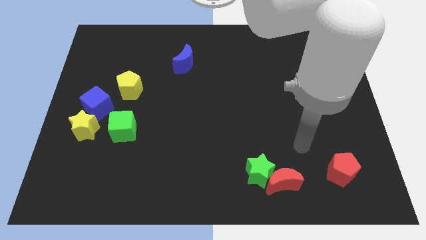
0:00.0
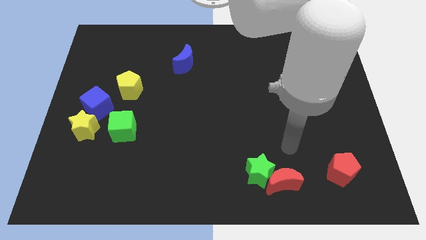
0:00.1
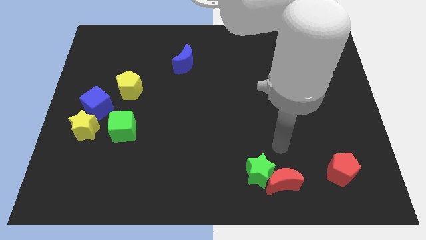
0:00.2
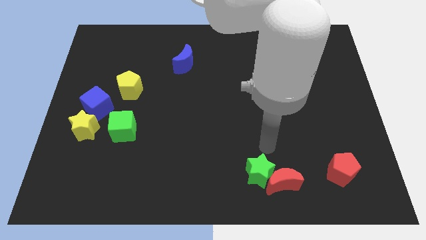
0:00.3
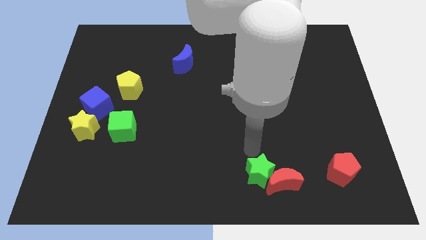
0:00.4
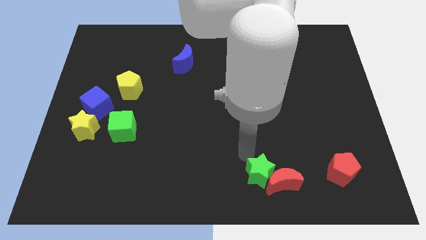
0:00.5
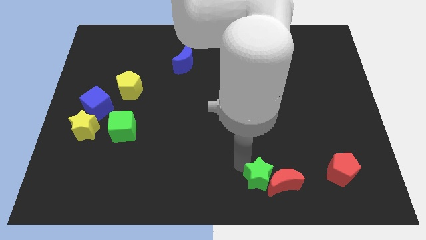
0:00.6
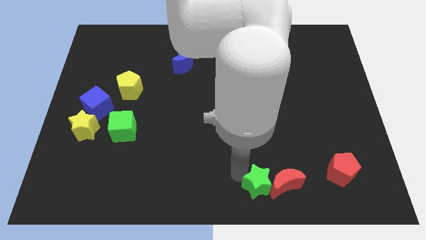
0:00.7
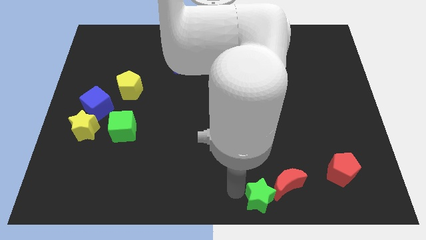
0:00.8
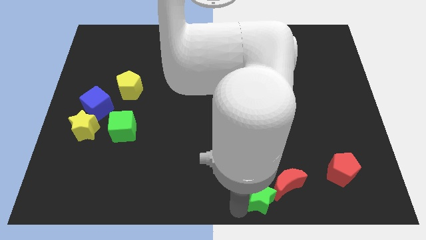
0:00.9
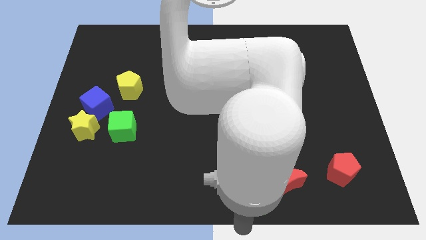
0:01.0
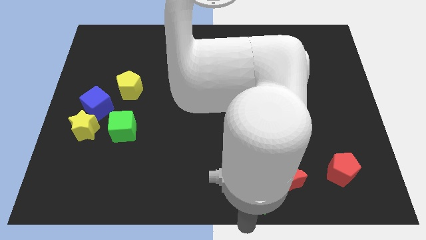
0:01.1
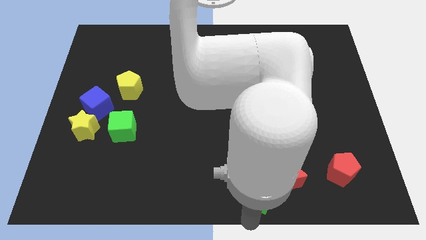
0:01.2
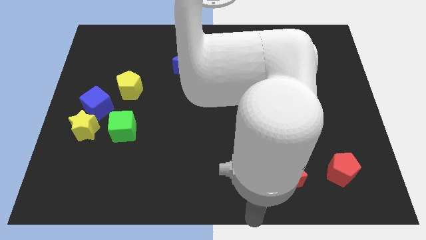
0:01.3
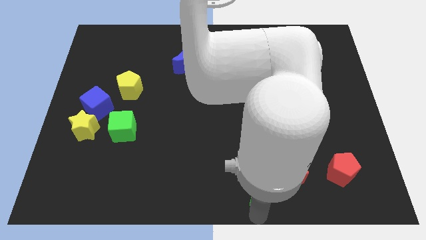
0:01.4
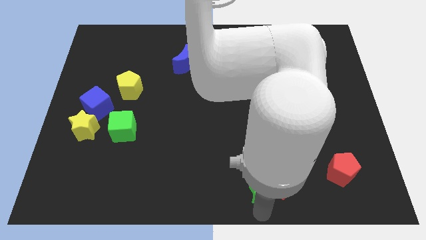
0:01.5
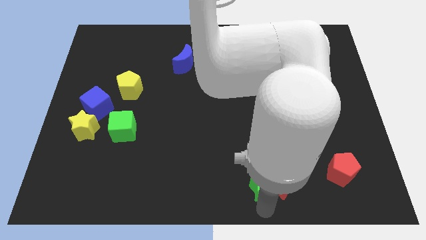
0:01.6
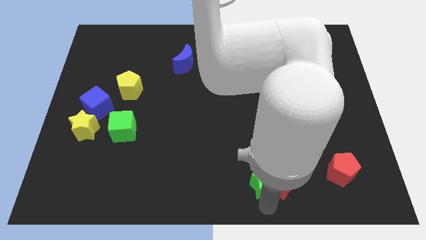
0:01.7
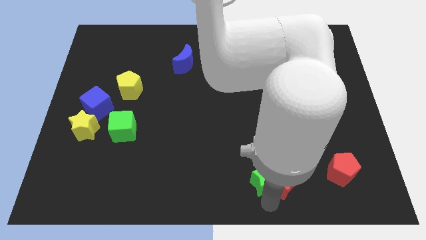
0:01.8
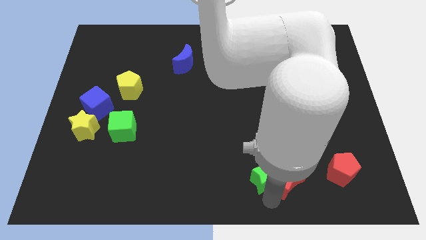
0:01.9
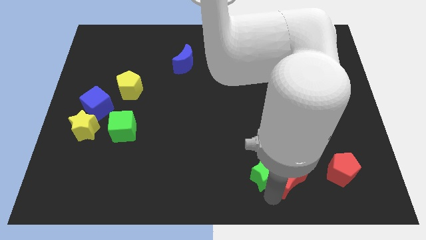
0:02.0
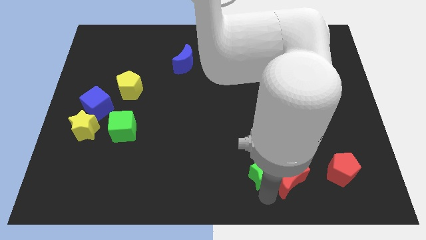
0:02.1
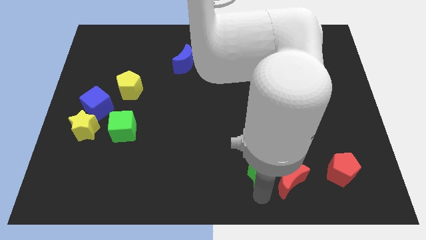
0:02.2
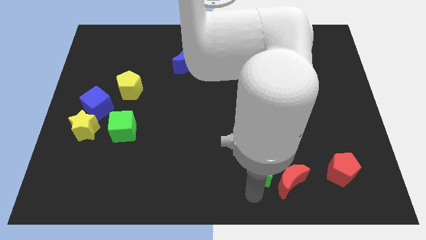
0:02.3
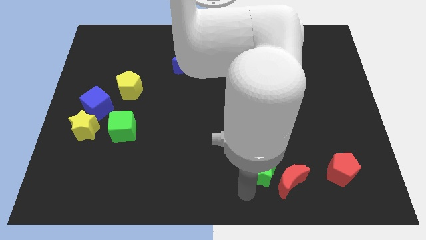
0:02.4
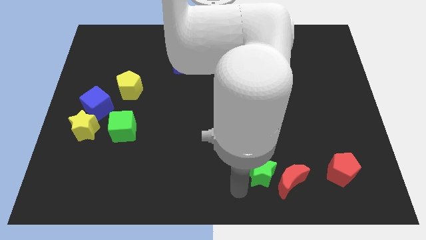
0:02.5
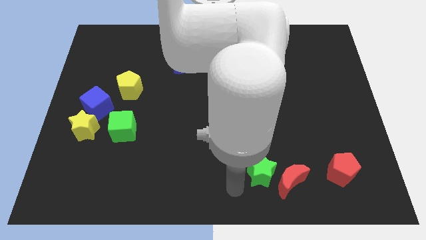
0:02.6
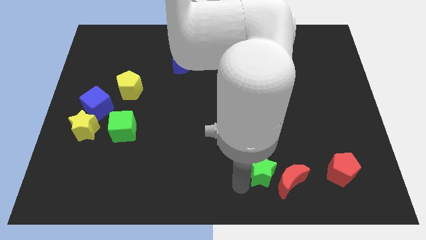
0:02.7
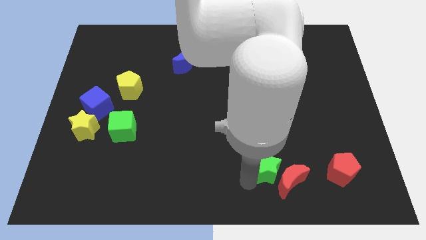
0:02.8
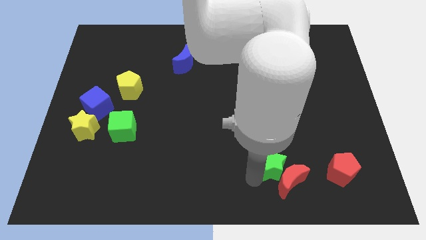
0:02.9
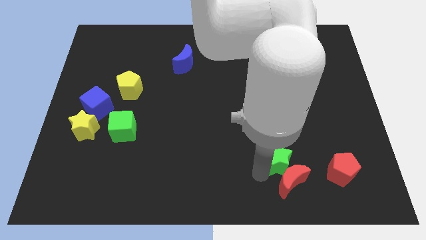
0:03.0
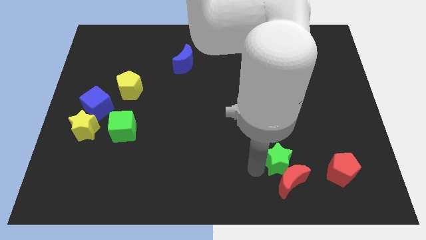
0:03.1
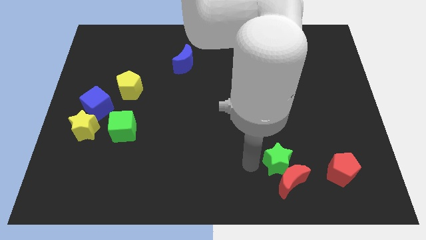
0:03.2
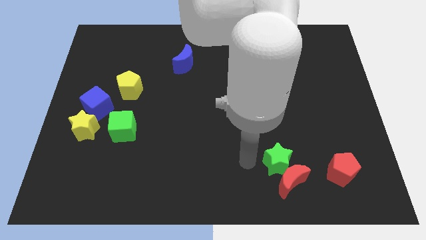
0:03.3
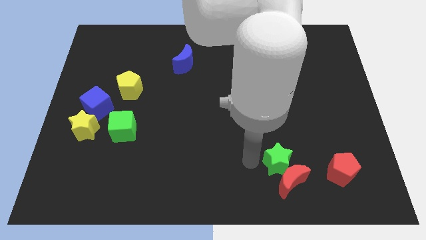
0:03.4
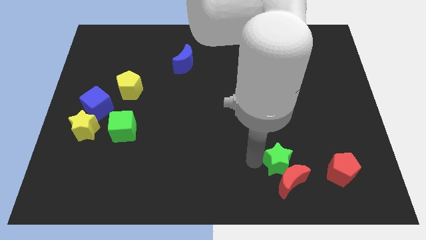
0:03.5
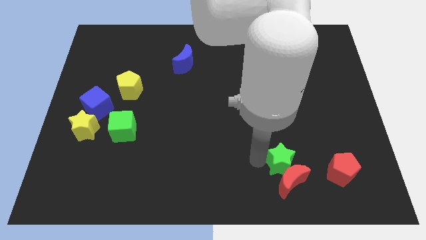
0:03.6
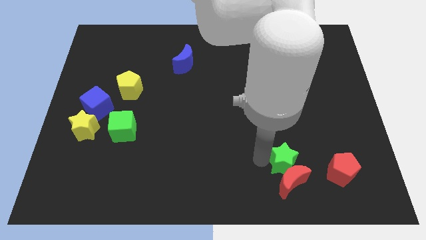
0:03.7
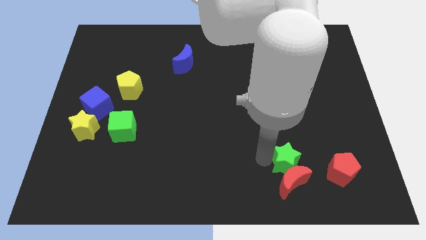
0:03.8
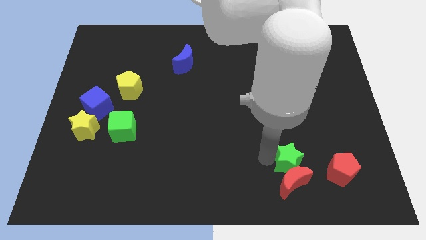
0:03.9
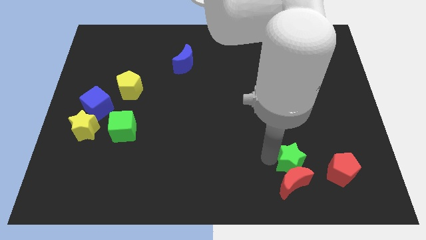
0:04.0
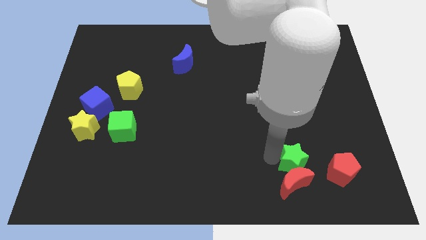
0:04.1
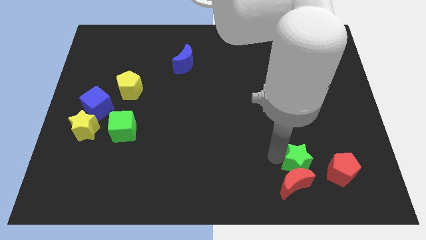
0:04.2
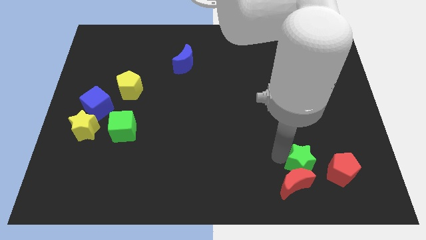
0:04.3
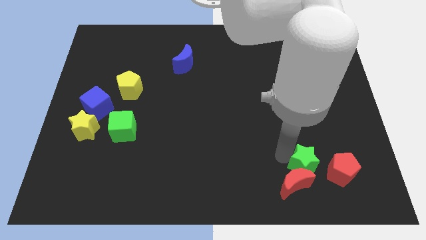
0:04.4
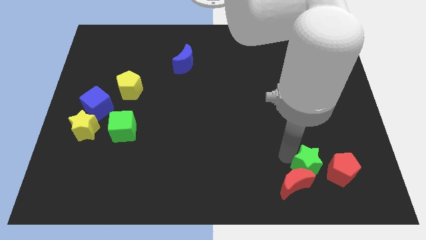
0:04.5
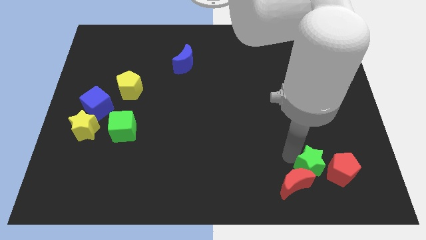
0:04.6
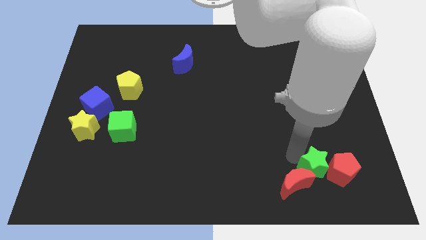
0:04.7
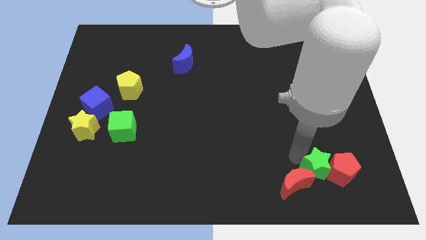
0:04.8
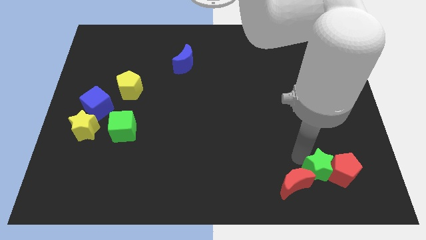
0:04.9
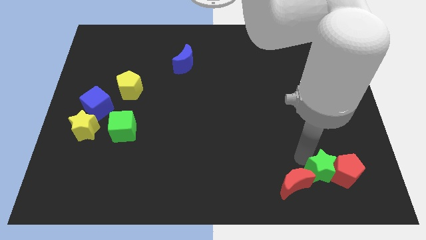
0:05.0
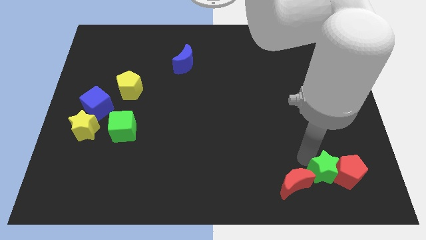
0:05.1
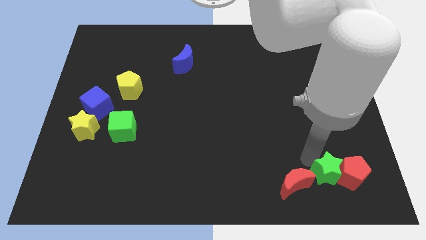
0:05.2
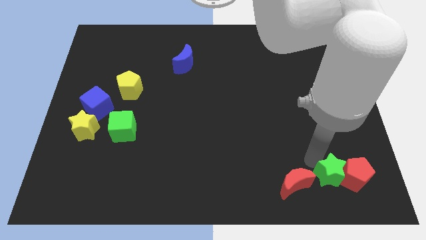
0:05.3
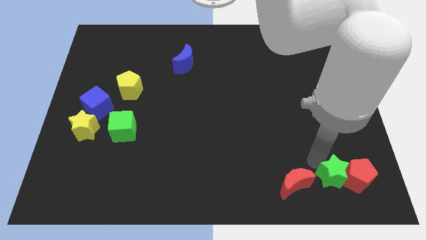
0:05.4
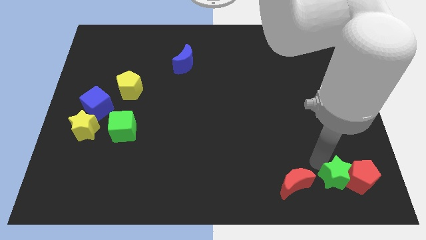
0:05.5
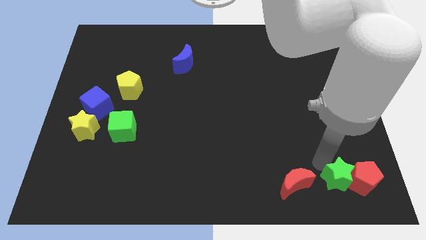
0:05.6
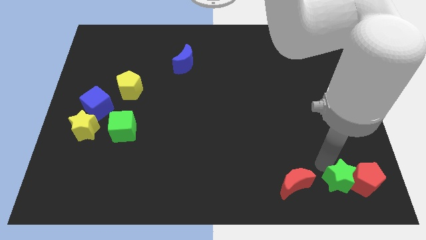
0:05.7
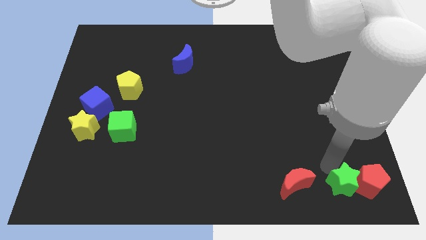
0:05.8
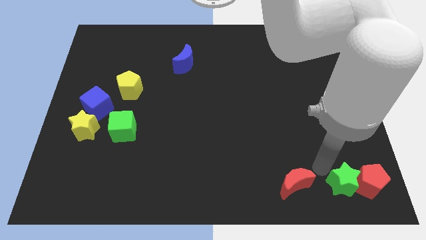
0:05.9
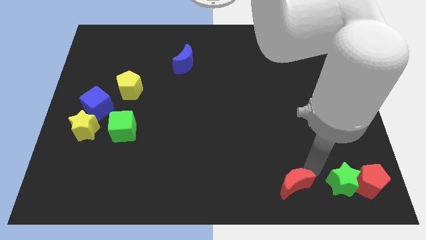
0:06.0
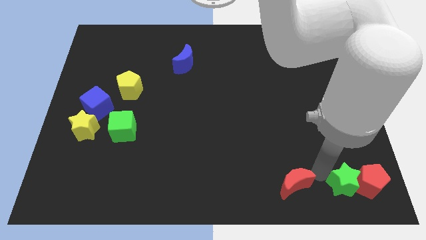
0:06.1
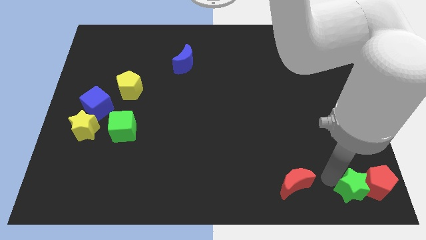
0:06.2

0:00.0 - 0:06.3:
push the green star to the bottom right corner

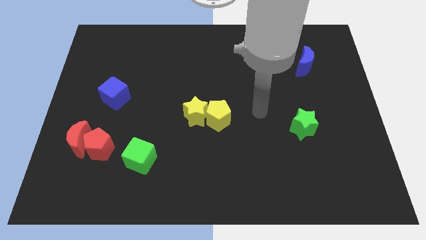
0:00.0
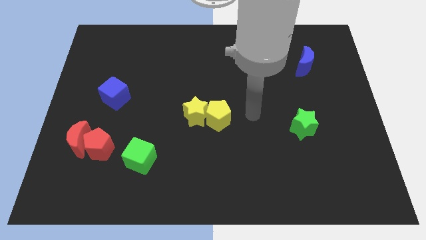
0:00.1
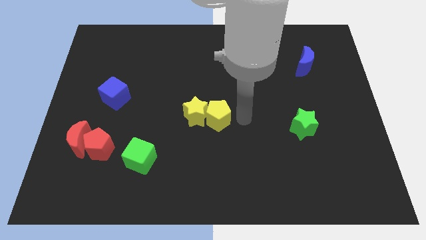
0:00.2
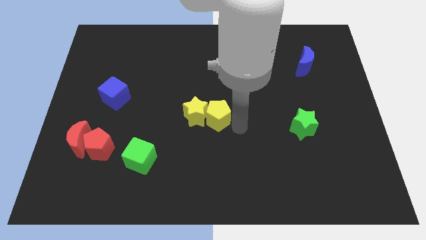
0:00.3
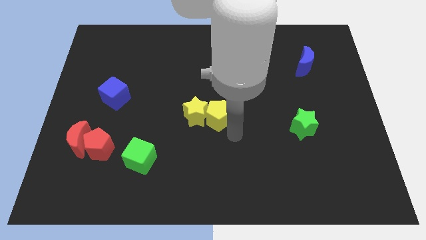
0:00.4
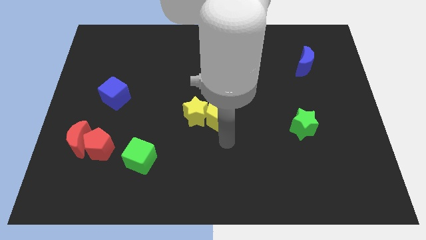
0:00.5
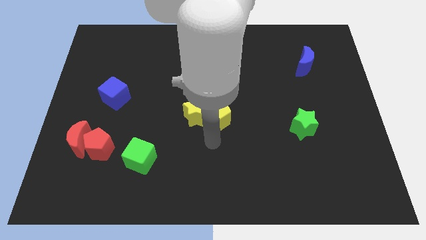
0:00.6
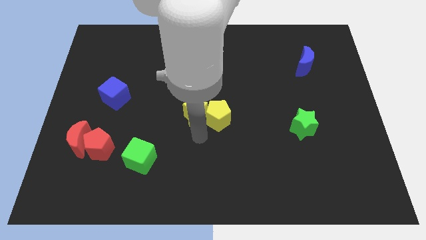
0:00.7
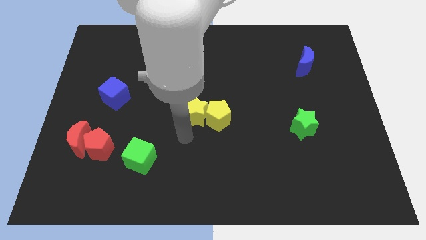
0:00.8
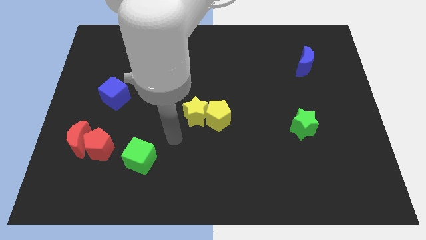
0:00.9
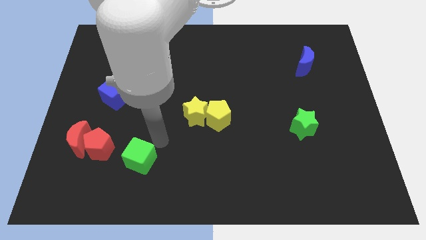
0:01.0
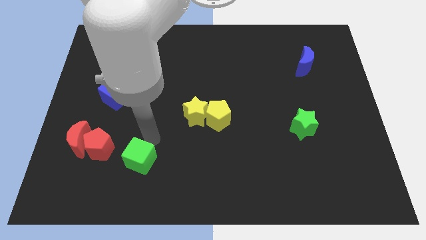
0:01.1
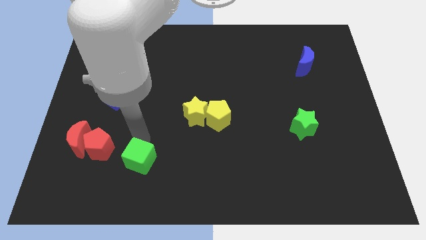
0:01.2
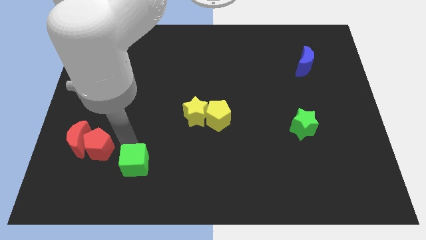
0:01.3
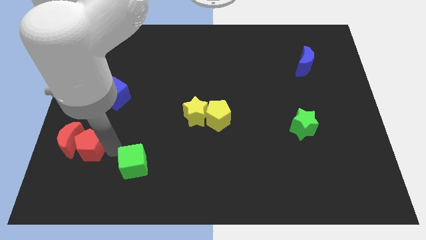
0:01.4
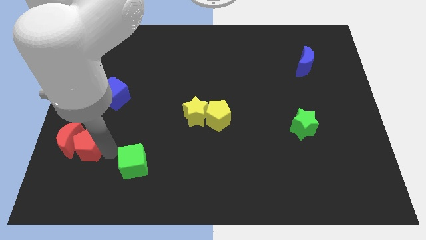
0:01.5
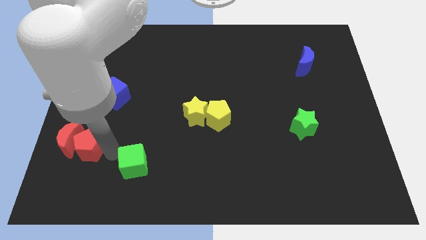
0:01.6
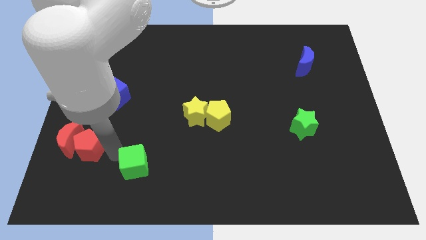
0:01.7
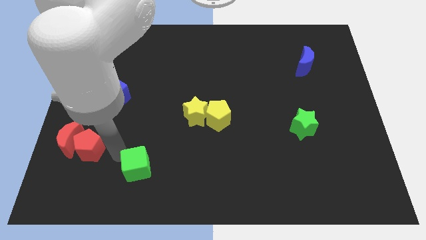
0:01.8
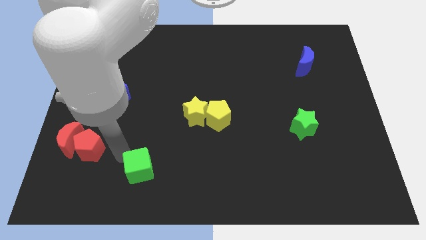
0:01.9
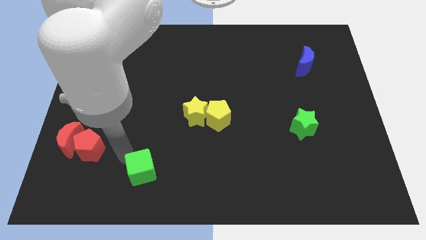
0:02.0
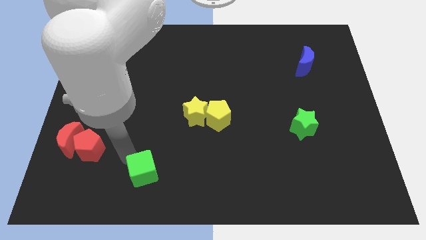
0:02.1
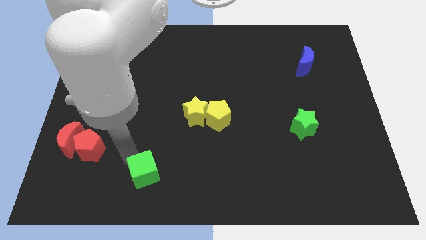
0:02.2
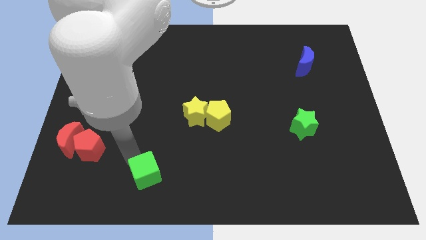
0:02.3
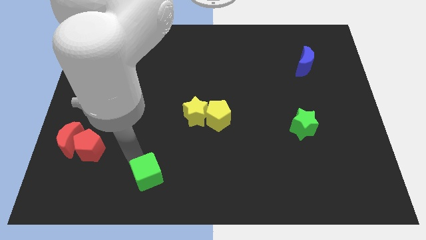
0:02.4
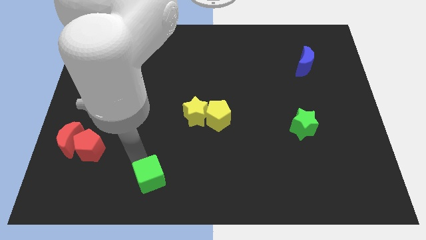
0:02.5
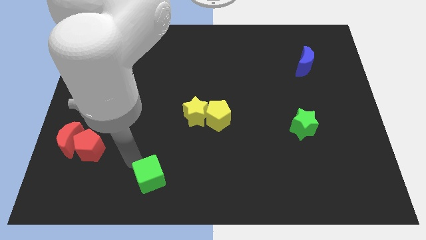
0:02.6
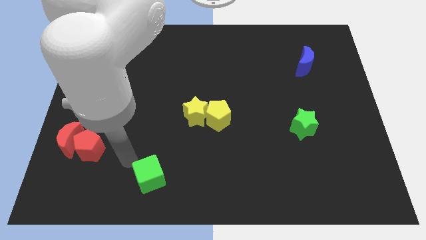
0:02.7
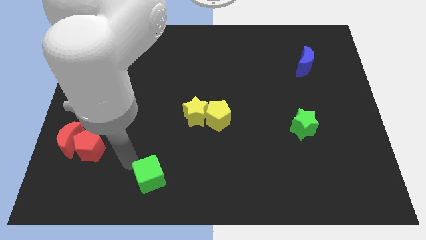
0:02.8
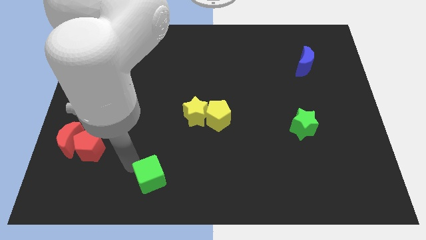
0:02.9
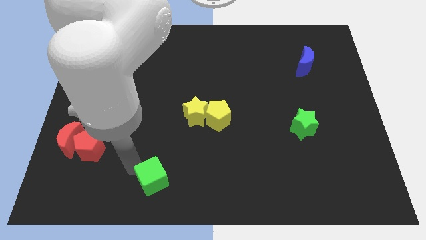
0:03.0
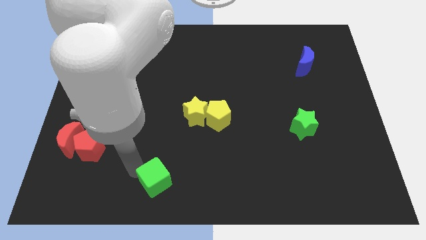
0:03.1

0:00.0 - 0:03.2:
push the green cube to the bottom
